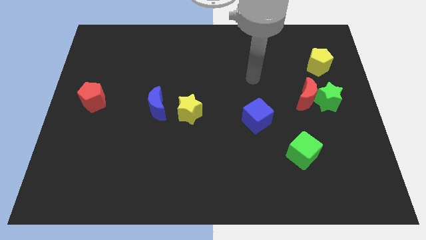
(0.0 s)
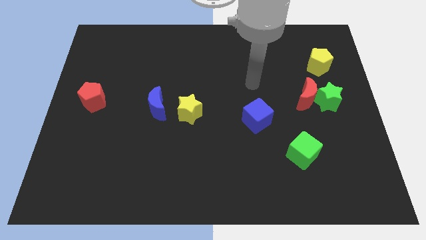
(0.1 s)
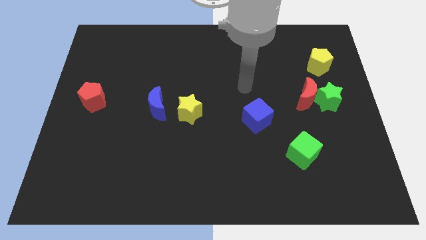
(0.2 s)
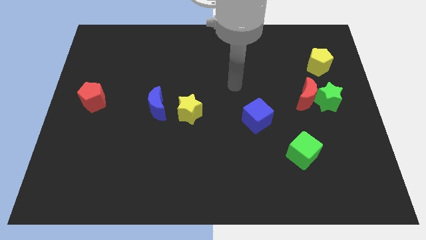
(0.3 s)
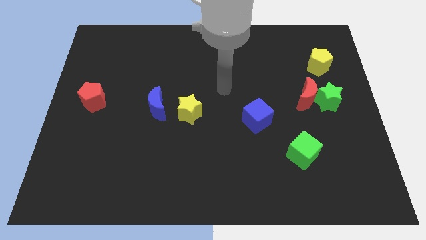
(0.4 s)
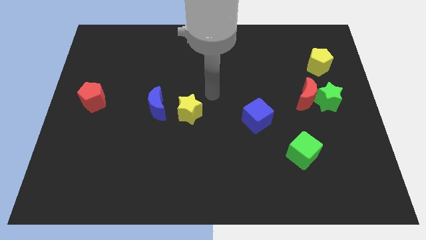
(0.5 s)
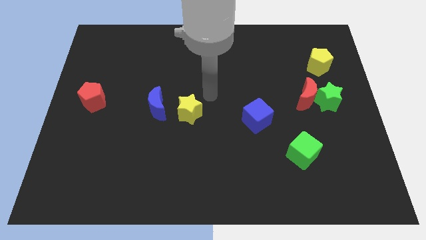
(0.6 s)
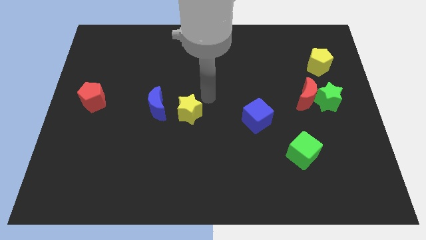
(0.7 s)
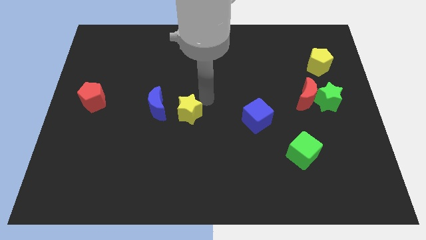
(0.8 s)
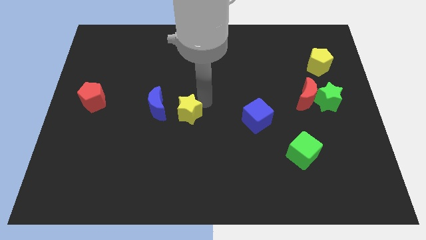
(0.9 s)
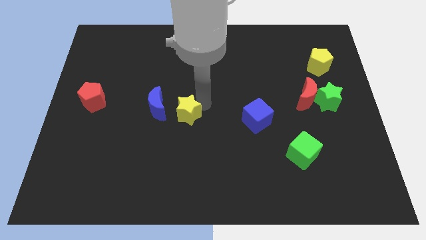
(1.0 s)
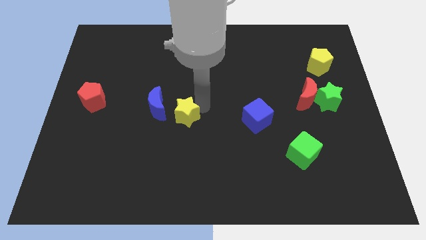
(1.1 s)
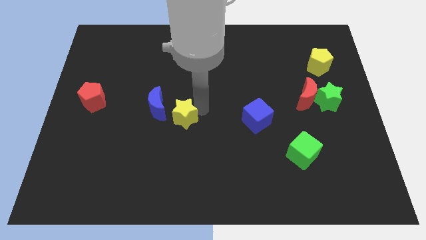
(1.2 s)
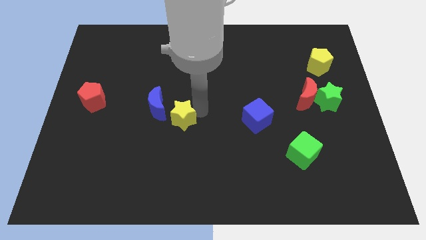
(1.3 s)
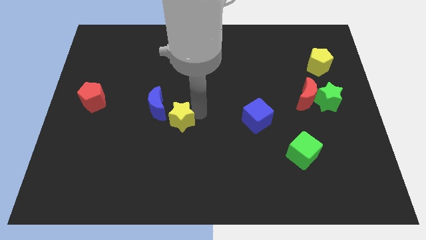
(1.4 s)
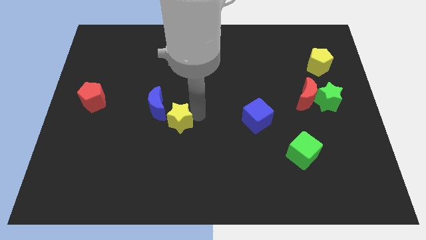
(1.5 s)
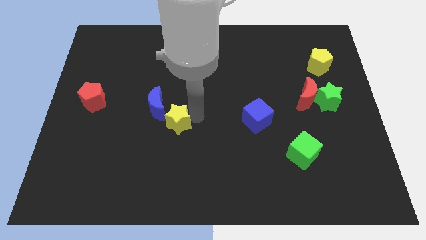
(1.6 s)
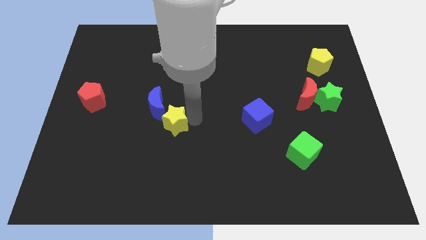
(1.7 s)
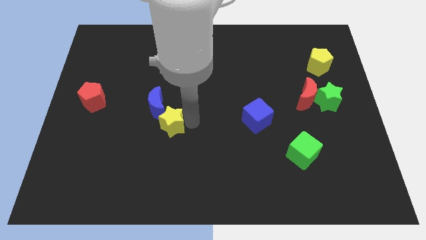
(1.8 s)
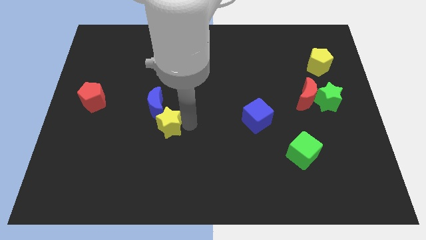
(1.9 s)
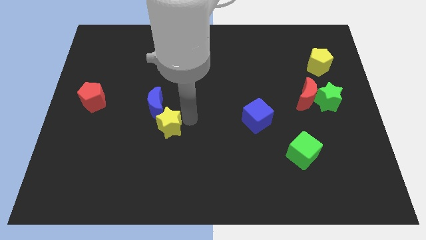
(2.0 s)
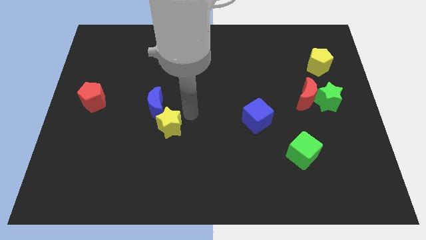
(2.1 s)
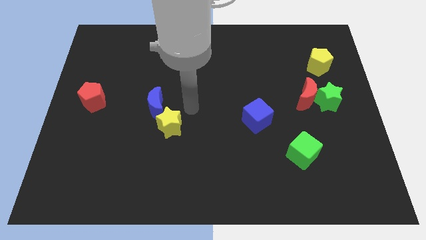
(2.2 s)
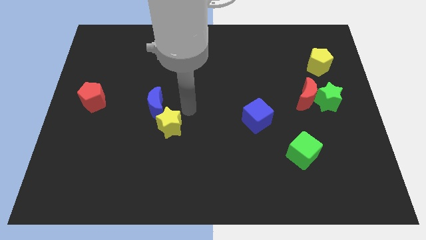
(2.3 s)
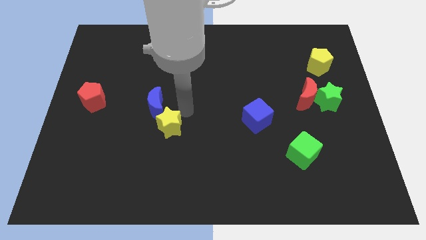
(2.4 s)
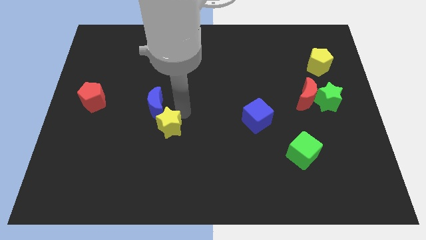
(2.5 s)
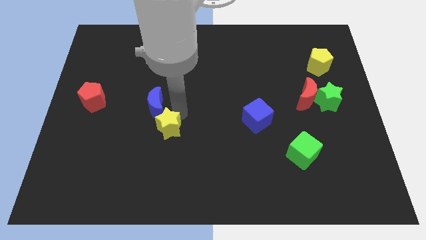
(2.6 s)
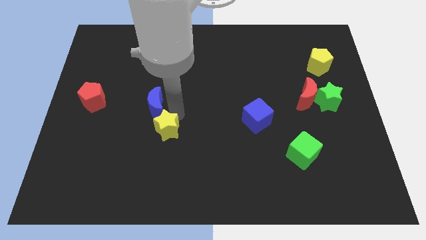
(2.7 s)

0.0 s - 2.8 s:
move the yellow star diagonally down and left slightly

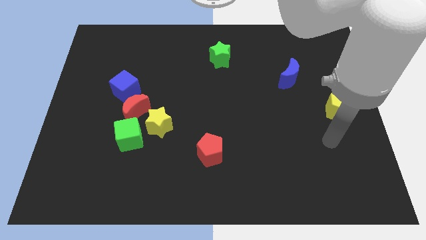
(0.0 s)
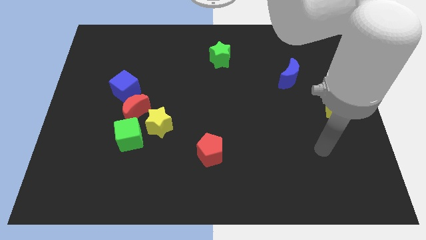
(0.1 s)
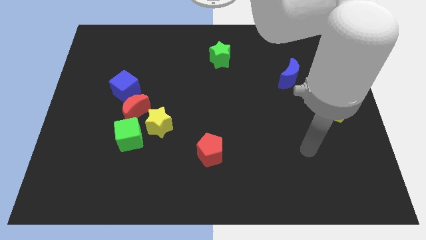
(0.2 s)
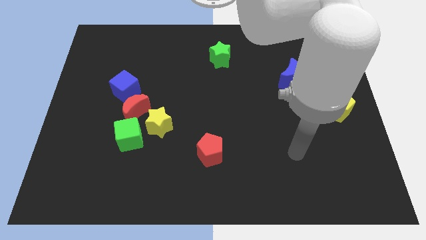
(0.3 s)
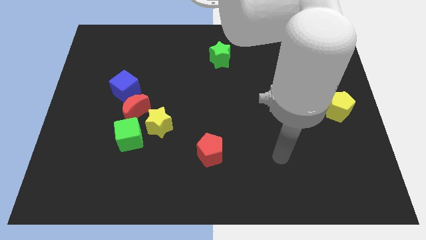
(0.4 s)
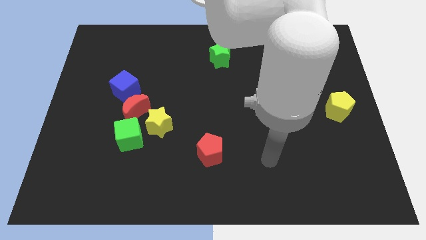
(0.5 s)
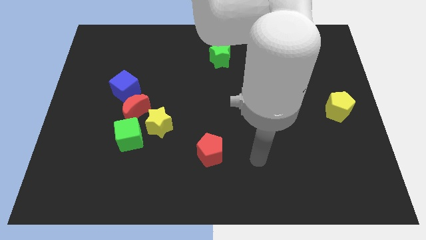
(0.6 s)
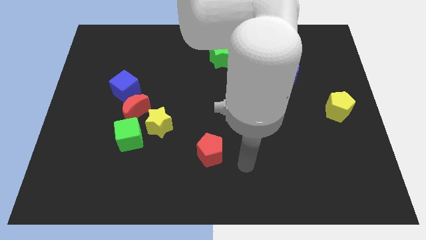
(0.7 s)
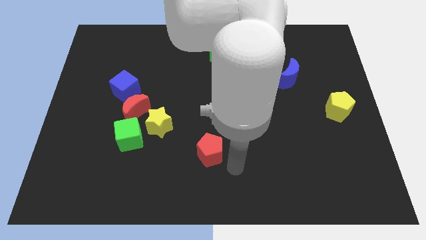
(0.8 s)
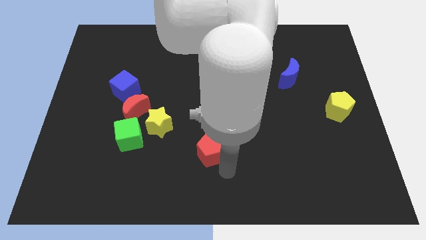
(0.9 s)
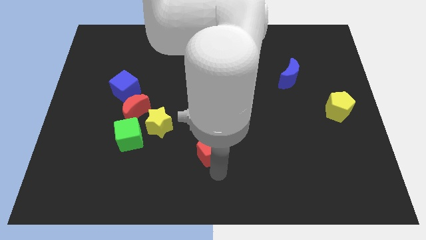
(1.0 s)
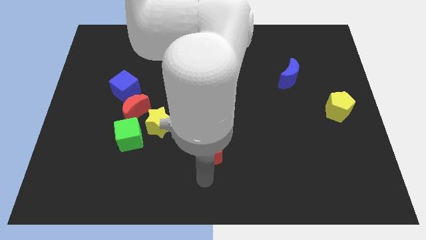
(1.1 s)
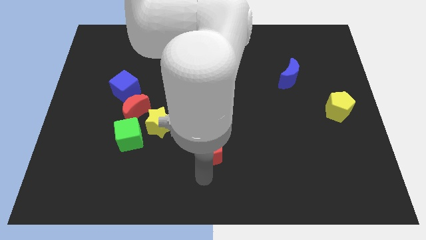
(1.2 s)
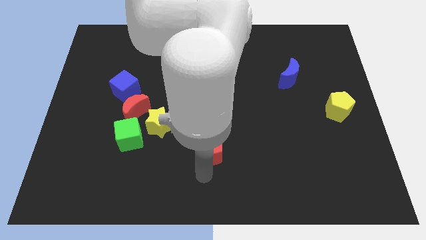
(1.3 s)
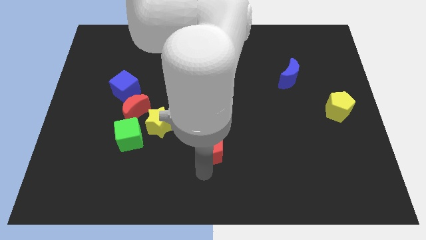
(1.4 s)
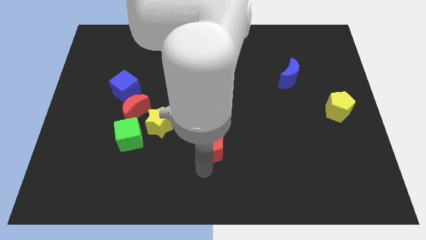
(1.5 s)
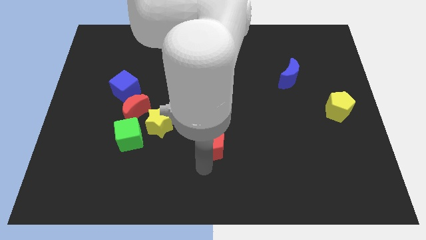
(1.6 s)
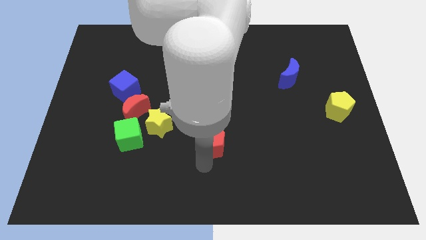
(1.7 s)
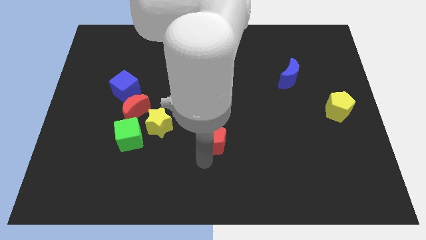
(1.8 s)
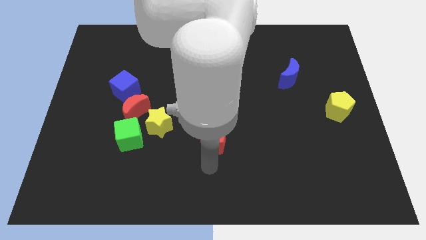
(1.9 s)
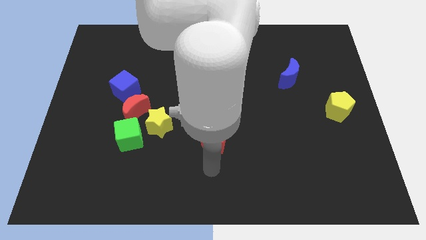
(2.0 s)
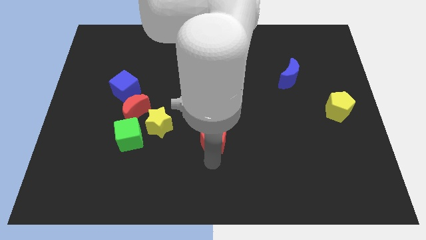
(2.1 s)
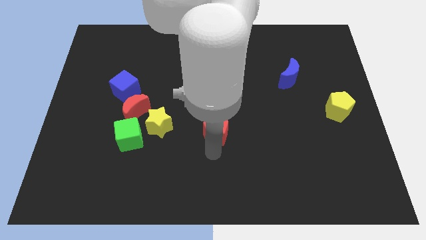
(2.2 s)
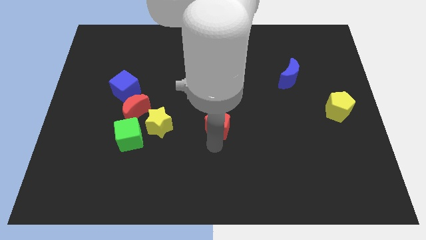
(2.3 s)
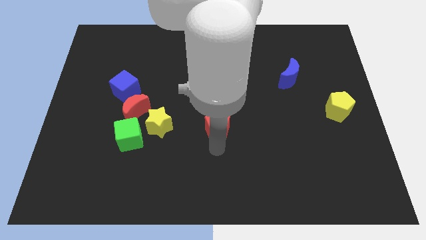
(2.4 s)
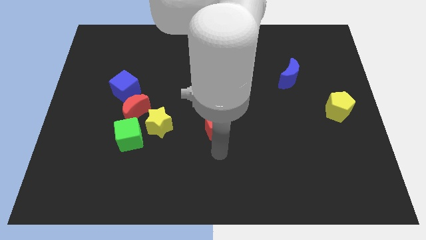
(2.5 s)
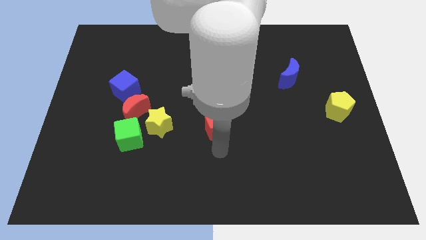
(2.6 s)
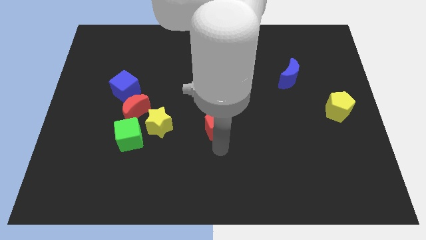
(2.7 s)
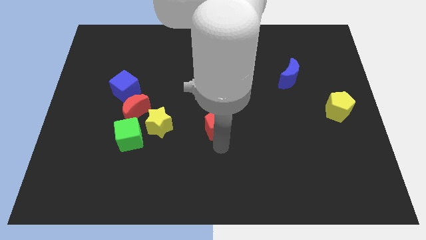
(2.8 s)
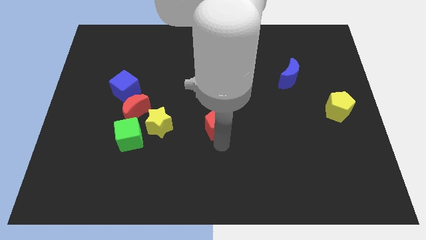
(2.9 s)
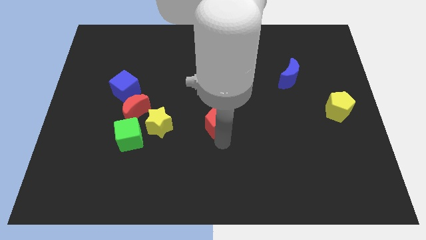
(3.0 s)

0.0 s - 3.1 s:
slightly move the red pentagon up

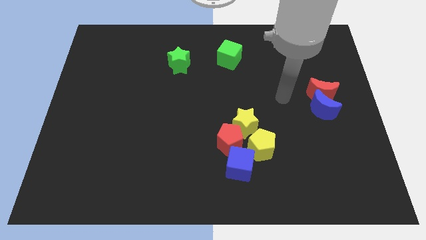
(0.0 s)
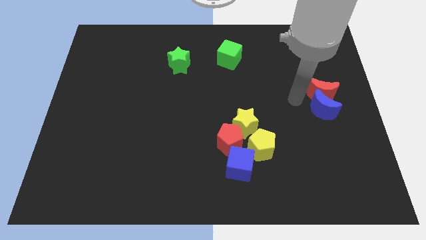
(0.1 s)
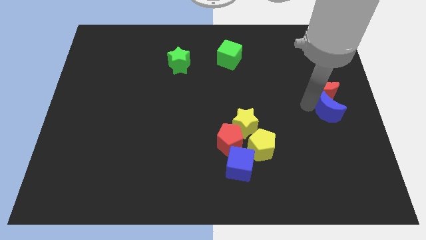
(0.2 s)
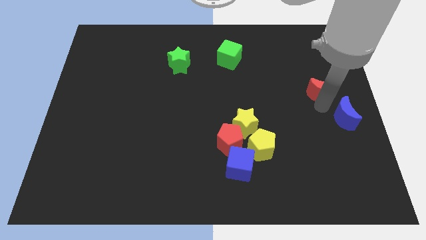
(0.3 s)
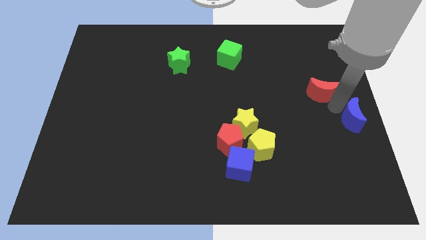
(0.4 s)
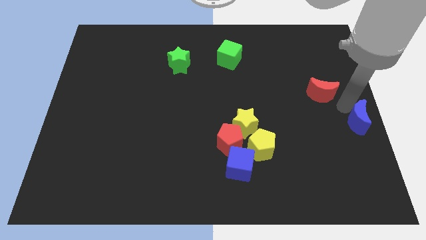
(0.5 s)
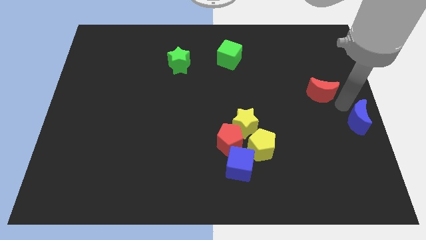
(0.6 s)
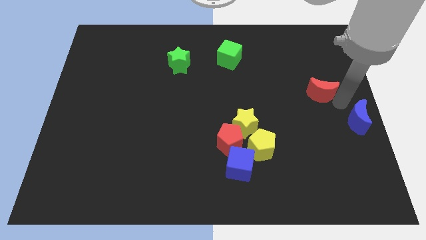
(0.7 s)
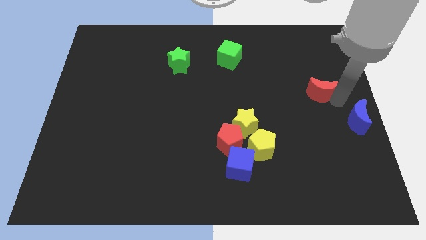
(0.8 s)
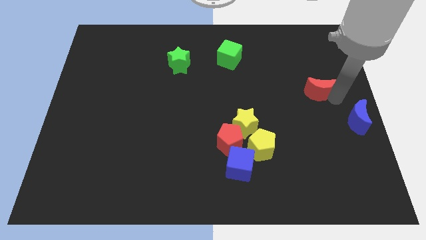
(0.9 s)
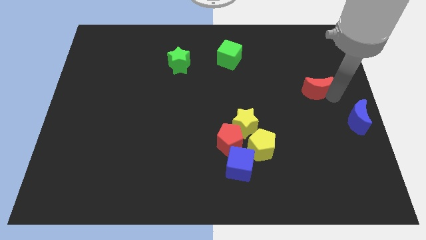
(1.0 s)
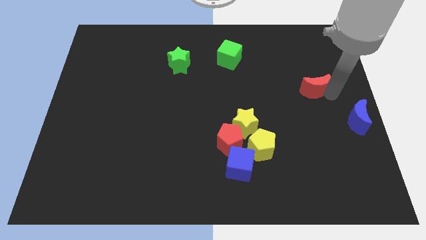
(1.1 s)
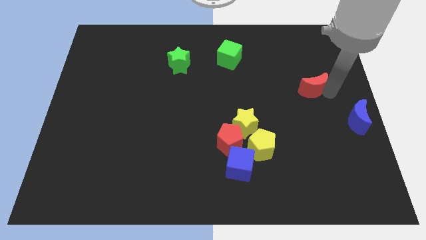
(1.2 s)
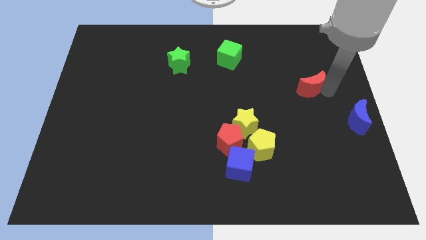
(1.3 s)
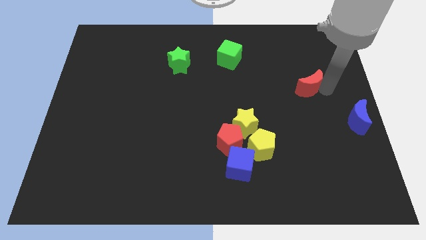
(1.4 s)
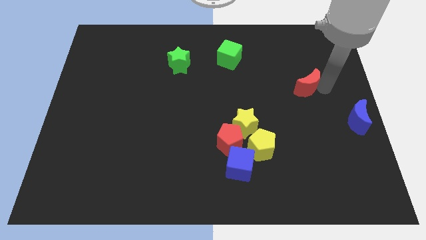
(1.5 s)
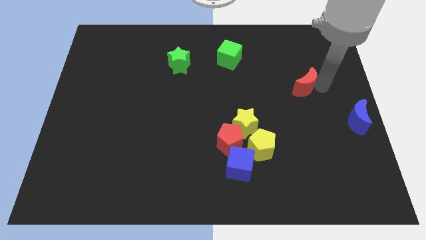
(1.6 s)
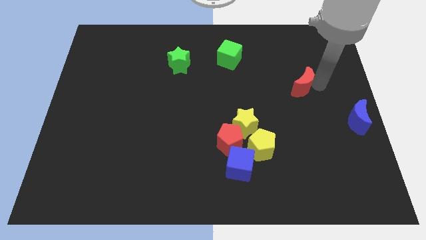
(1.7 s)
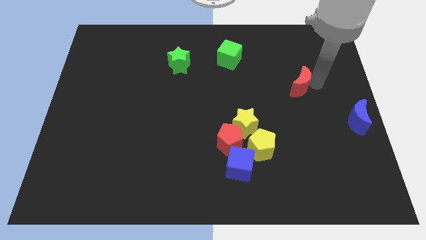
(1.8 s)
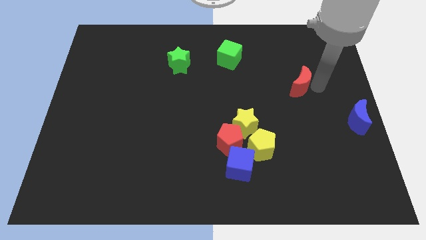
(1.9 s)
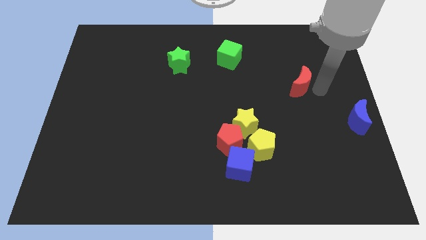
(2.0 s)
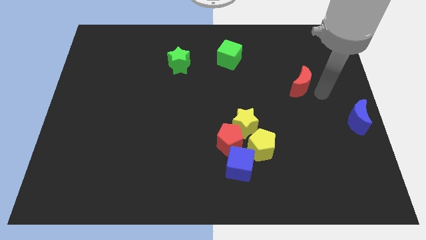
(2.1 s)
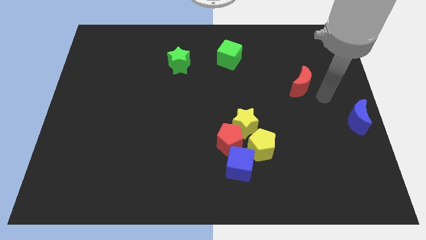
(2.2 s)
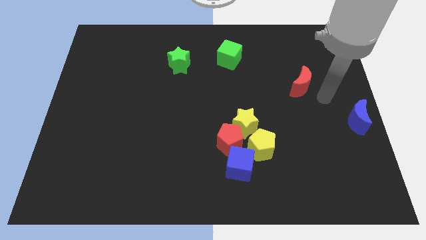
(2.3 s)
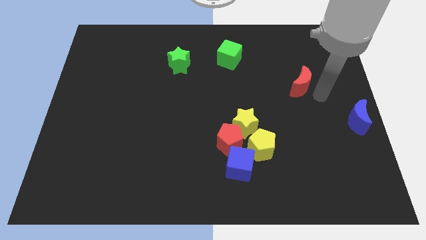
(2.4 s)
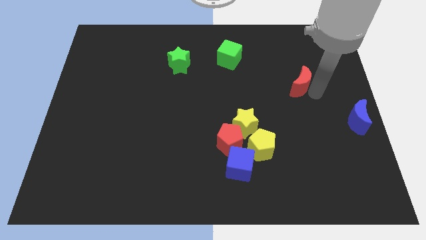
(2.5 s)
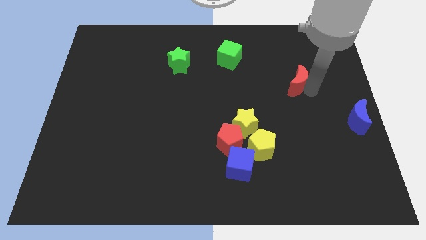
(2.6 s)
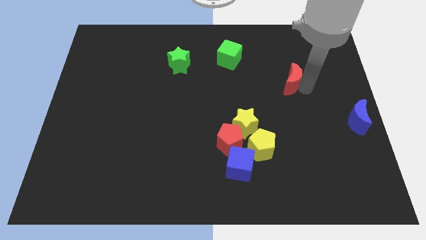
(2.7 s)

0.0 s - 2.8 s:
slightly slide the red moon up and left
